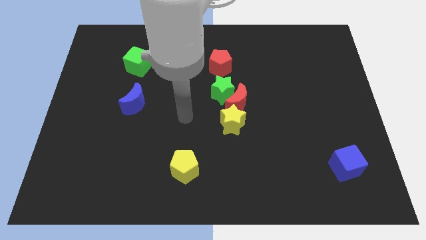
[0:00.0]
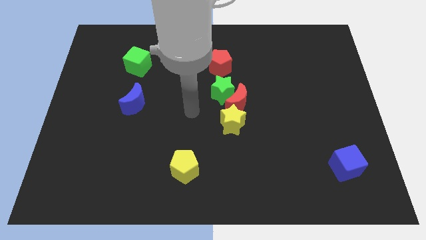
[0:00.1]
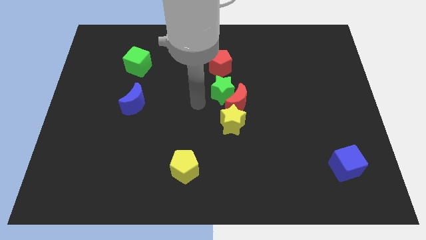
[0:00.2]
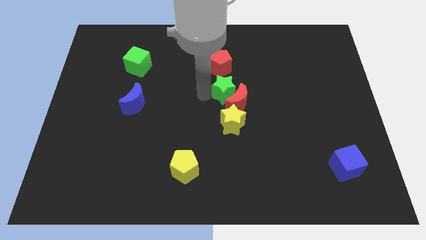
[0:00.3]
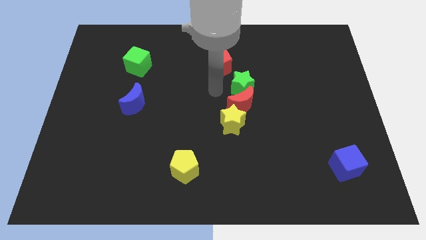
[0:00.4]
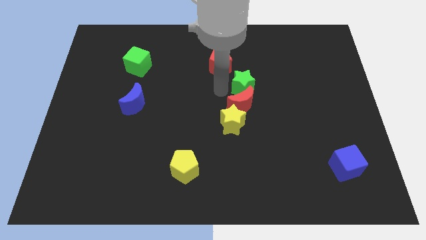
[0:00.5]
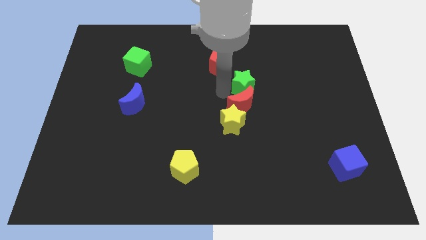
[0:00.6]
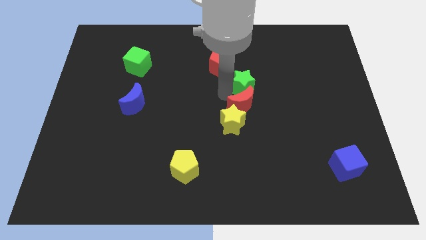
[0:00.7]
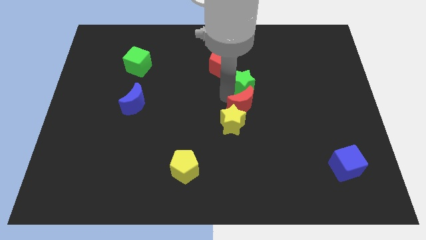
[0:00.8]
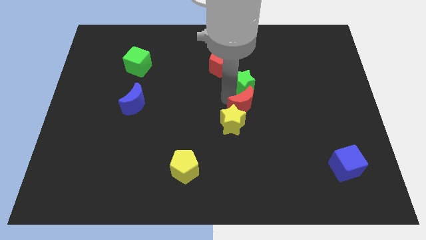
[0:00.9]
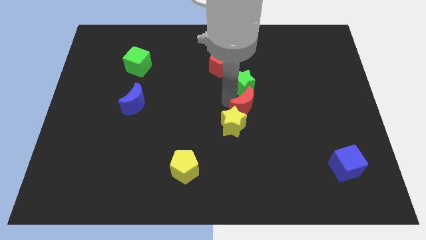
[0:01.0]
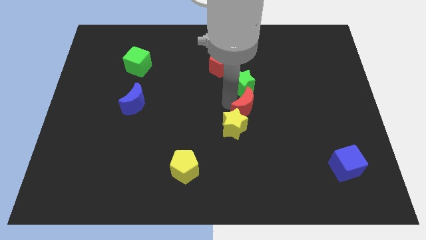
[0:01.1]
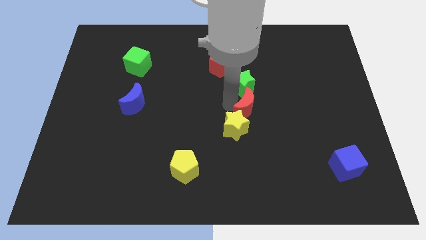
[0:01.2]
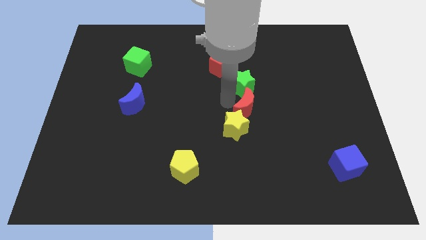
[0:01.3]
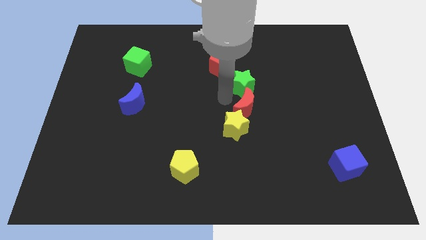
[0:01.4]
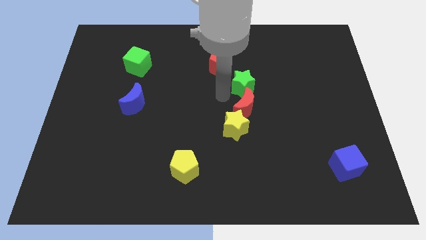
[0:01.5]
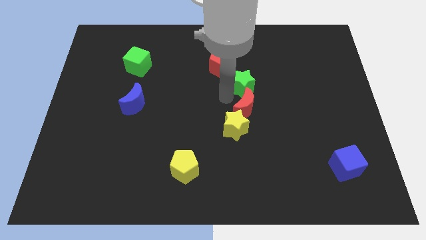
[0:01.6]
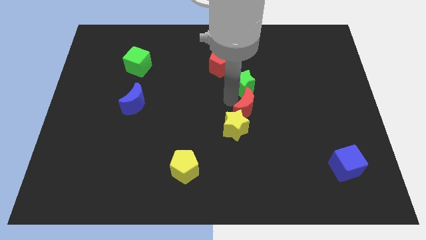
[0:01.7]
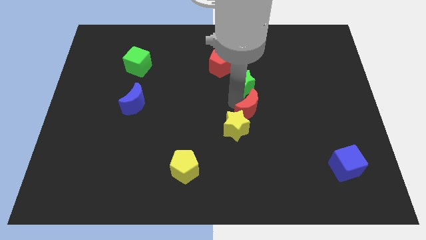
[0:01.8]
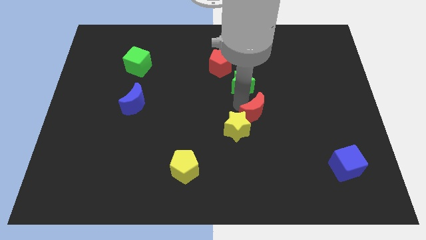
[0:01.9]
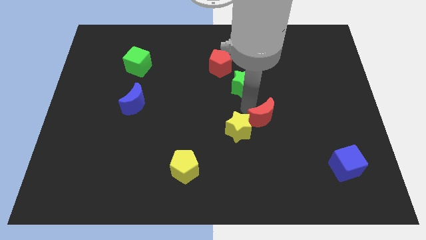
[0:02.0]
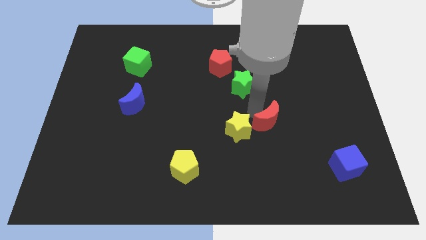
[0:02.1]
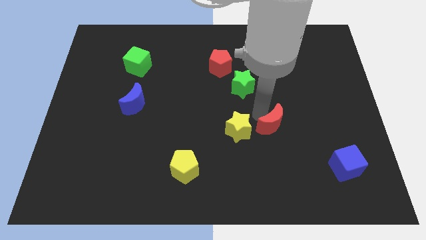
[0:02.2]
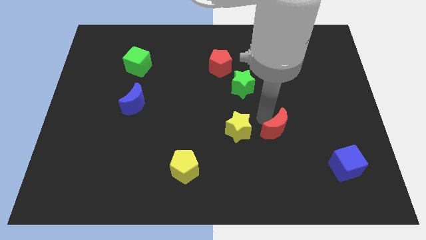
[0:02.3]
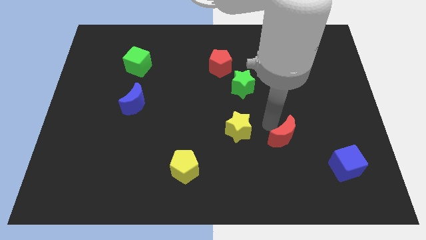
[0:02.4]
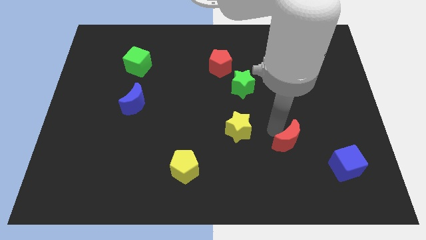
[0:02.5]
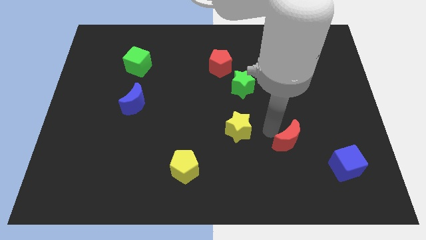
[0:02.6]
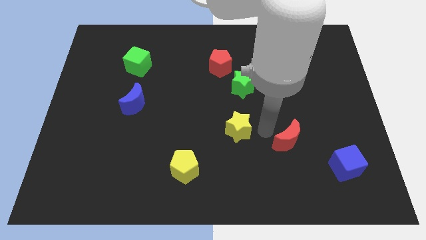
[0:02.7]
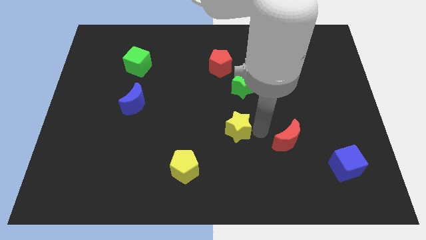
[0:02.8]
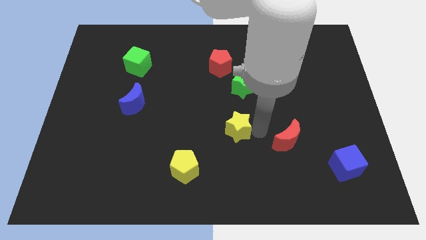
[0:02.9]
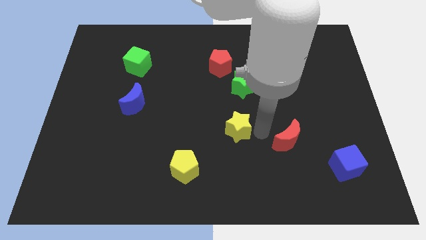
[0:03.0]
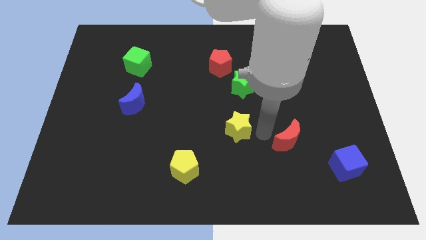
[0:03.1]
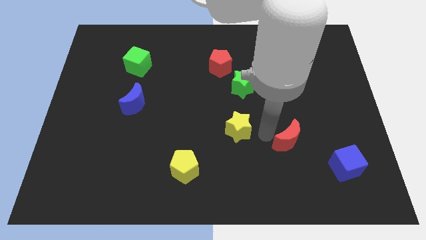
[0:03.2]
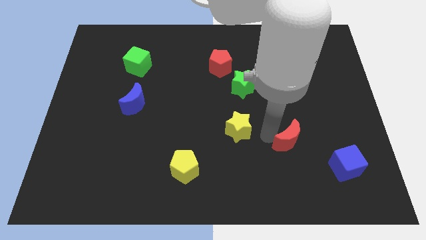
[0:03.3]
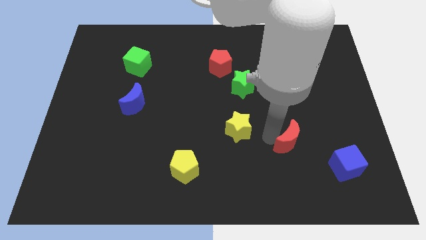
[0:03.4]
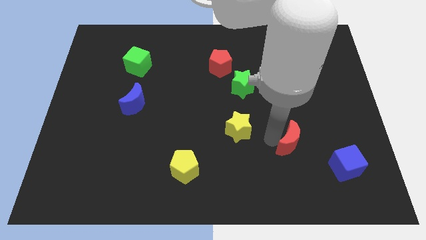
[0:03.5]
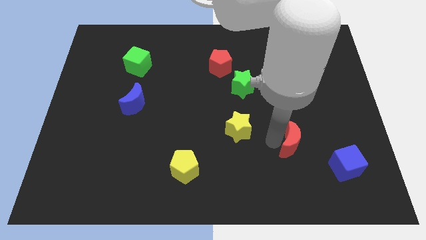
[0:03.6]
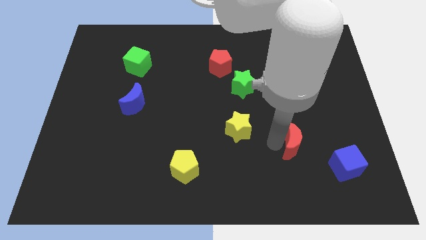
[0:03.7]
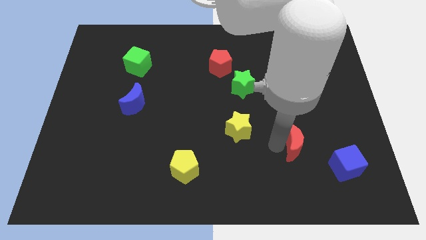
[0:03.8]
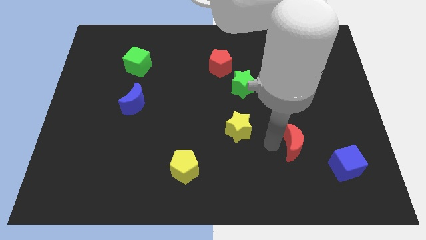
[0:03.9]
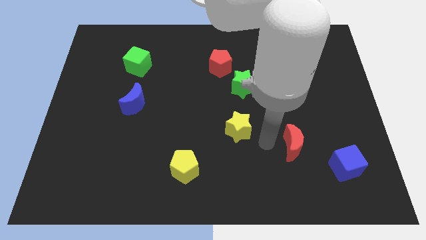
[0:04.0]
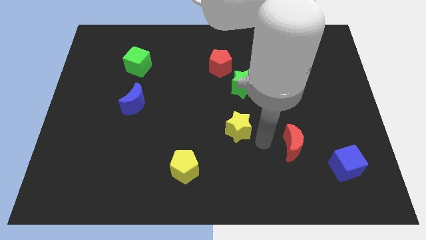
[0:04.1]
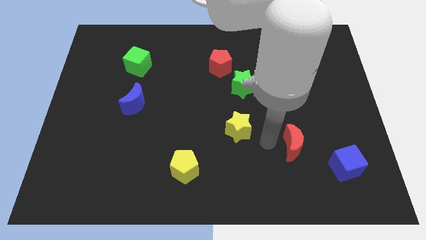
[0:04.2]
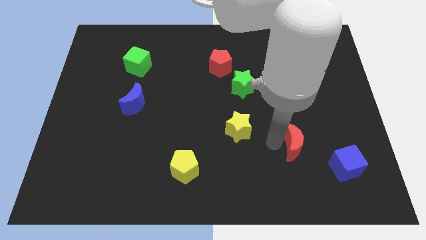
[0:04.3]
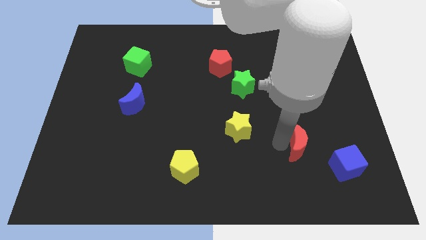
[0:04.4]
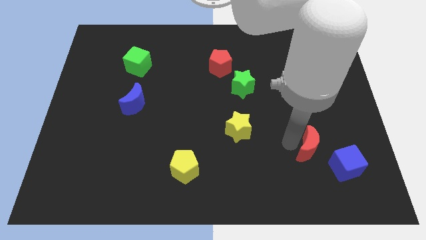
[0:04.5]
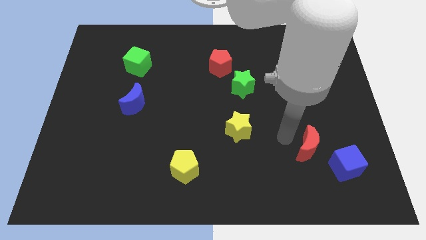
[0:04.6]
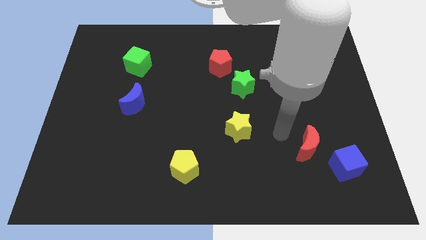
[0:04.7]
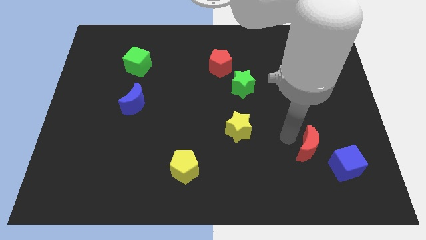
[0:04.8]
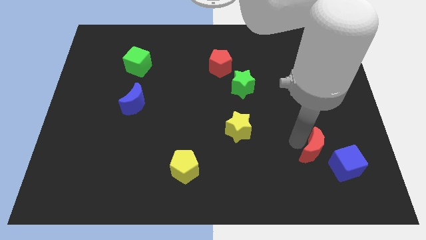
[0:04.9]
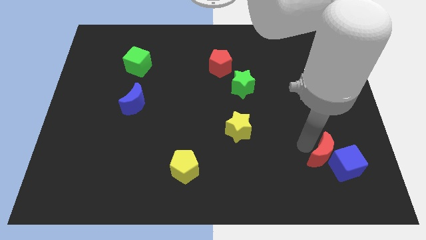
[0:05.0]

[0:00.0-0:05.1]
push the red moon towards the blue cube

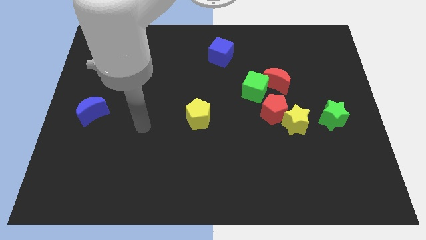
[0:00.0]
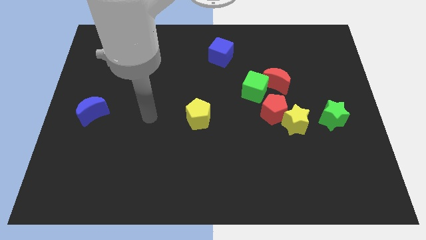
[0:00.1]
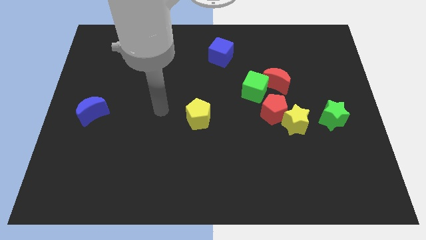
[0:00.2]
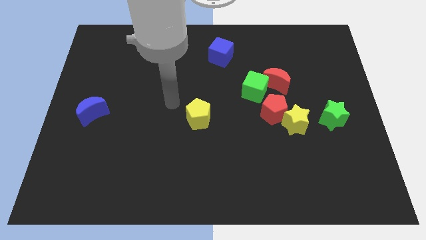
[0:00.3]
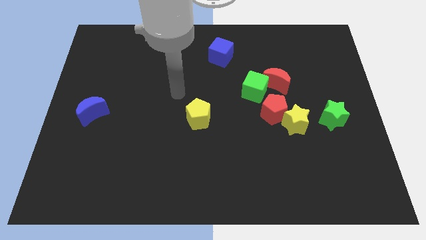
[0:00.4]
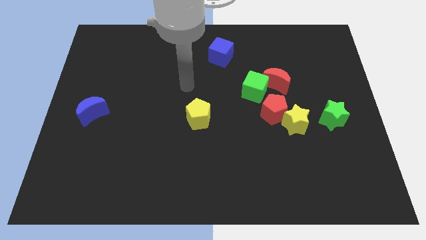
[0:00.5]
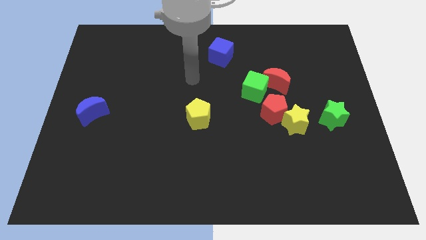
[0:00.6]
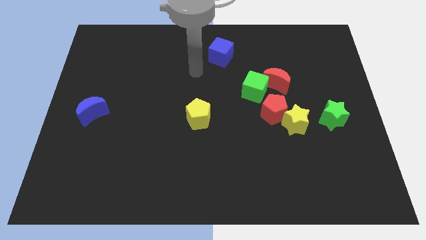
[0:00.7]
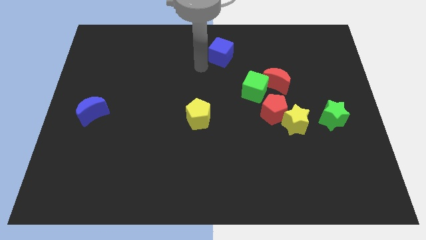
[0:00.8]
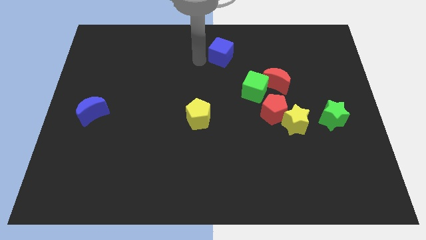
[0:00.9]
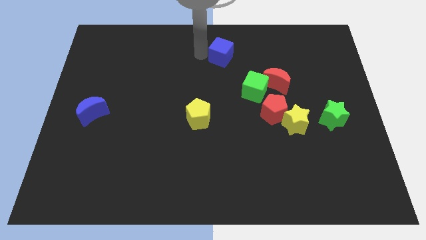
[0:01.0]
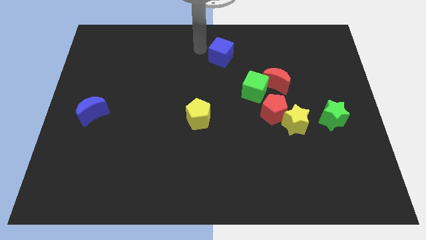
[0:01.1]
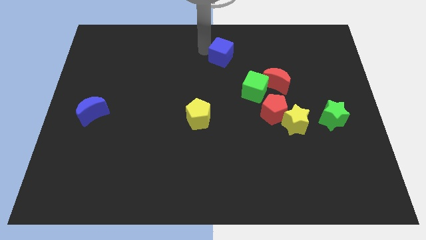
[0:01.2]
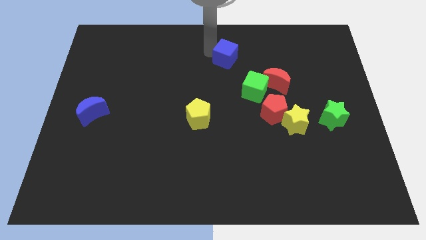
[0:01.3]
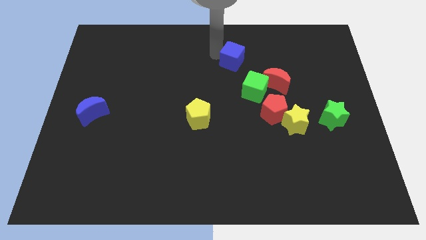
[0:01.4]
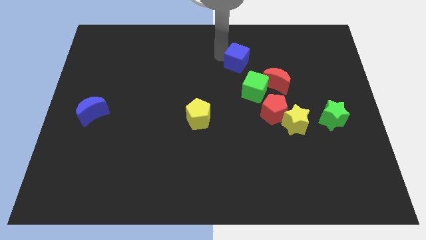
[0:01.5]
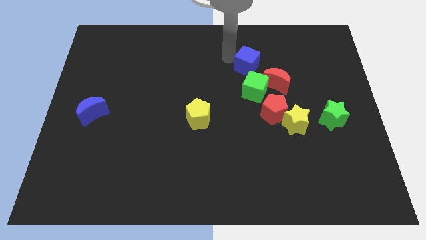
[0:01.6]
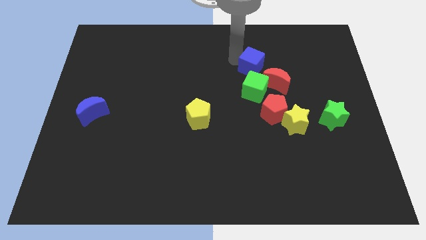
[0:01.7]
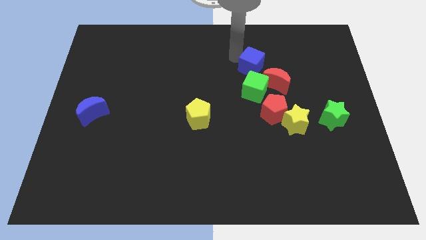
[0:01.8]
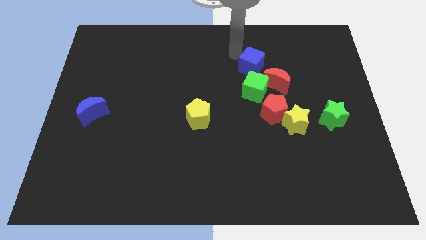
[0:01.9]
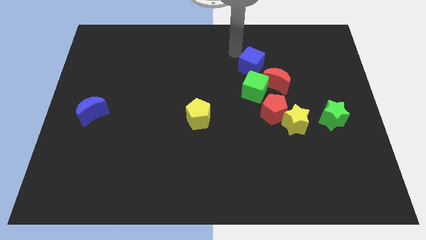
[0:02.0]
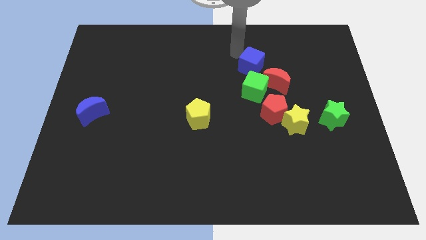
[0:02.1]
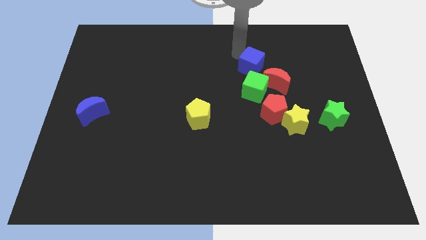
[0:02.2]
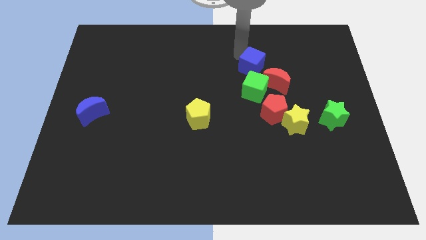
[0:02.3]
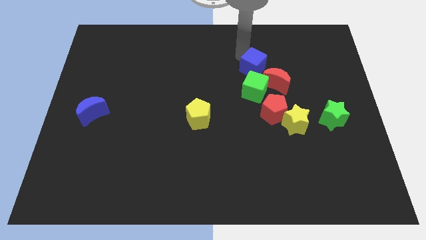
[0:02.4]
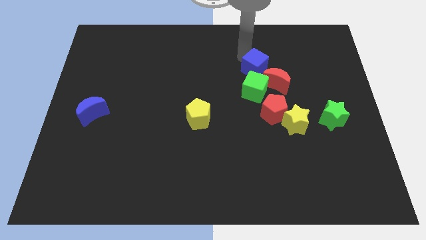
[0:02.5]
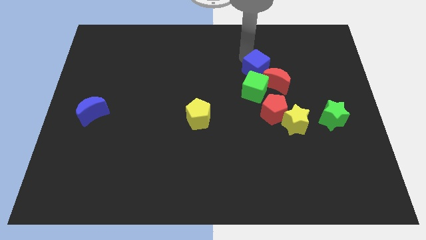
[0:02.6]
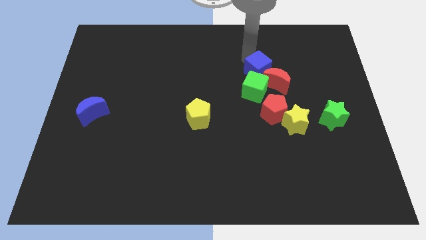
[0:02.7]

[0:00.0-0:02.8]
slide the blue cube to the red moon
